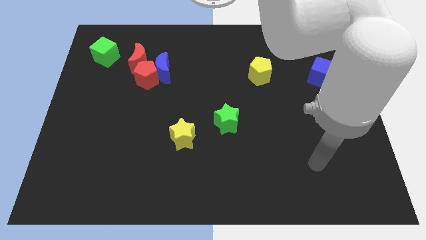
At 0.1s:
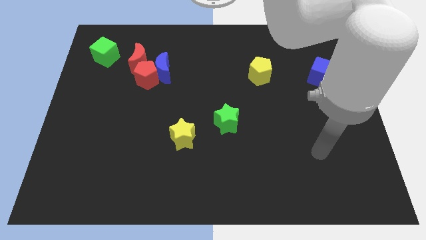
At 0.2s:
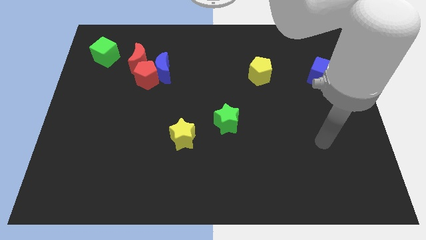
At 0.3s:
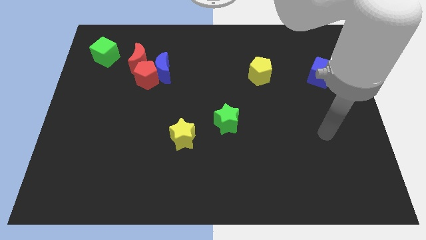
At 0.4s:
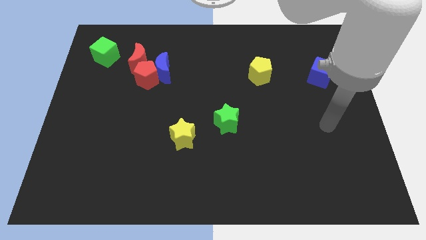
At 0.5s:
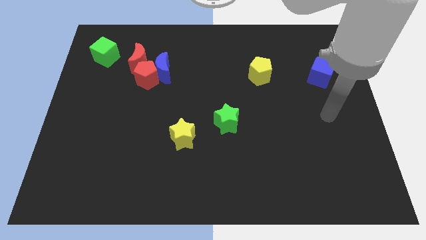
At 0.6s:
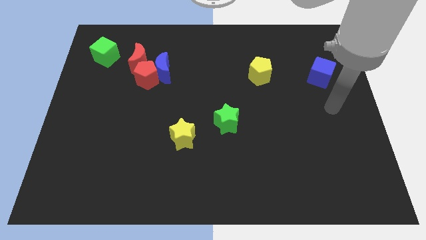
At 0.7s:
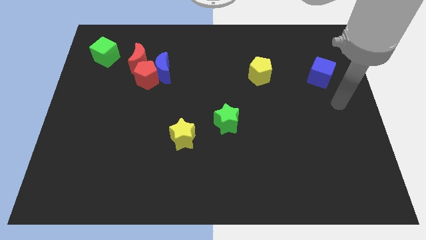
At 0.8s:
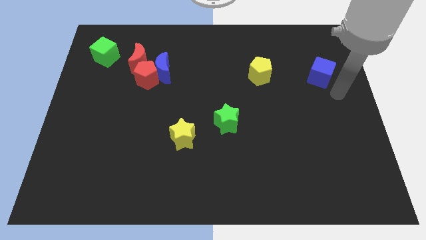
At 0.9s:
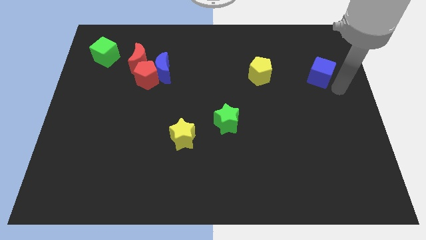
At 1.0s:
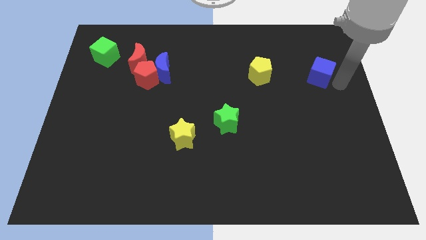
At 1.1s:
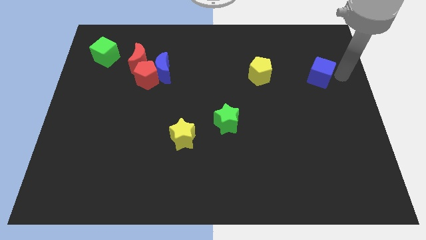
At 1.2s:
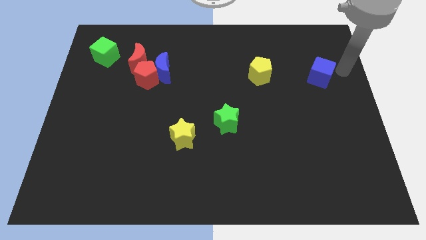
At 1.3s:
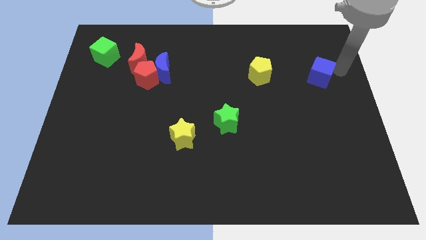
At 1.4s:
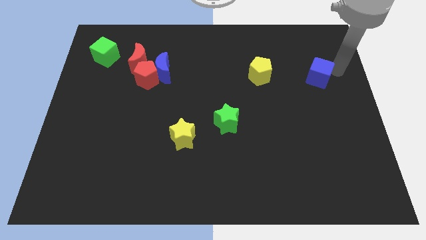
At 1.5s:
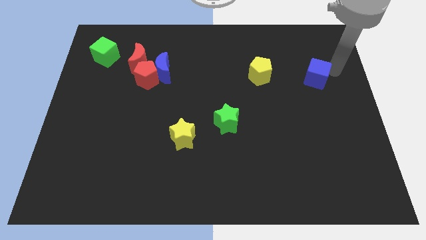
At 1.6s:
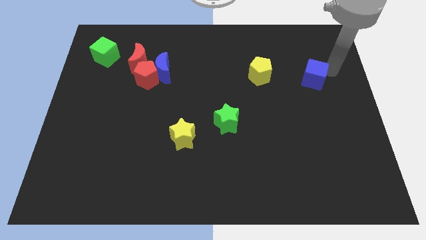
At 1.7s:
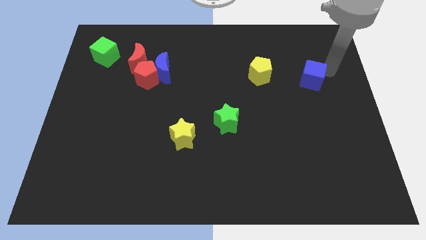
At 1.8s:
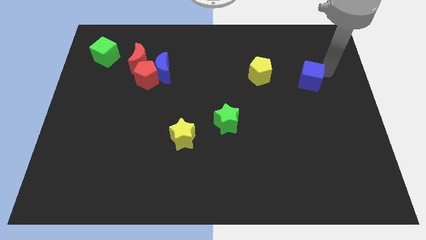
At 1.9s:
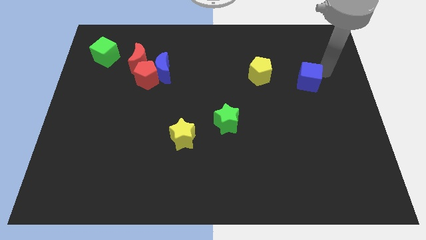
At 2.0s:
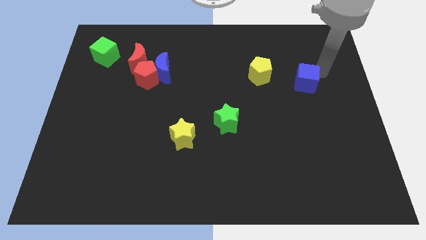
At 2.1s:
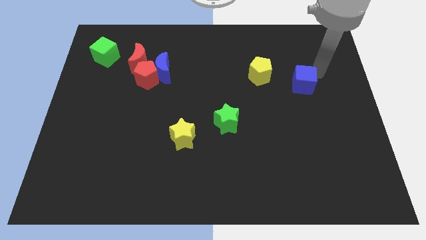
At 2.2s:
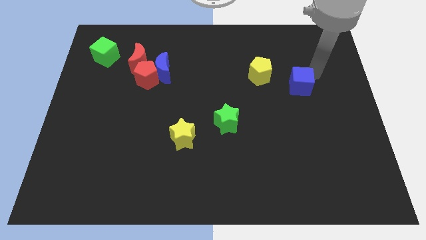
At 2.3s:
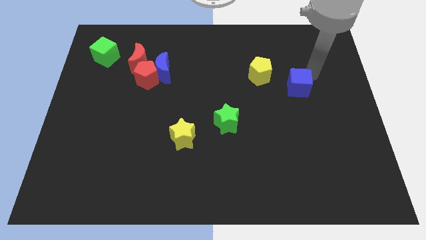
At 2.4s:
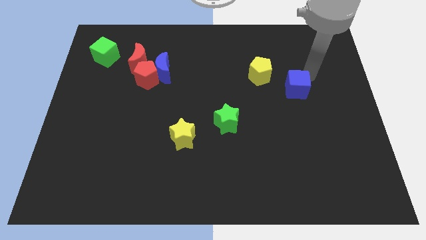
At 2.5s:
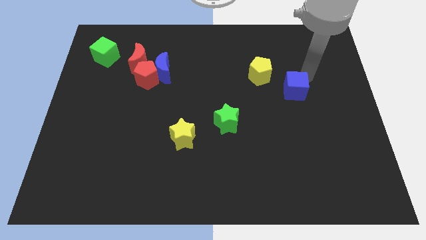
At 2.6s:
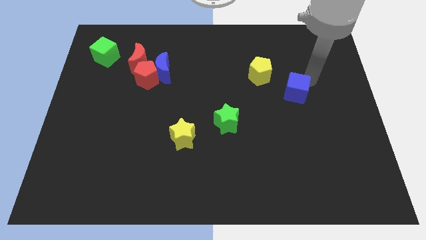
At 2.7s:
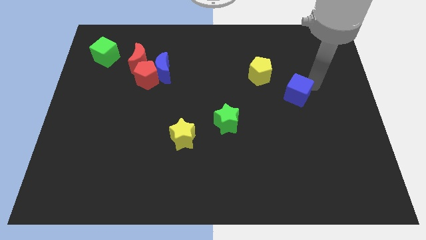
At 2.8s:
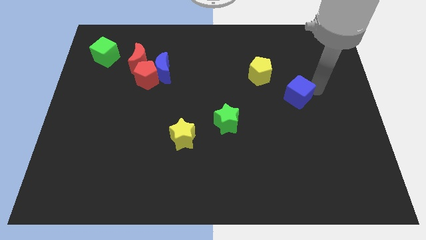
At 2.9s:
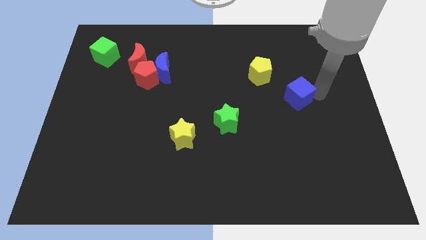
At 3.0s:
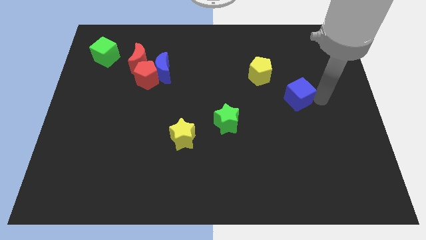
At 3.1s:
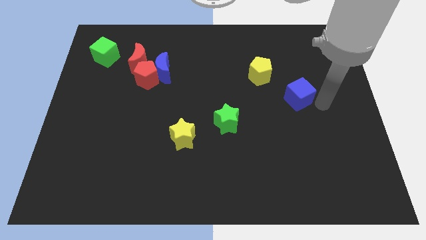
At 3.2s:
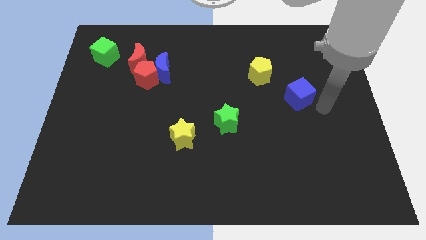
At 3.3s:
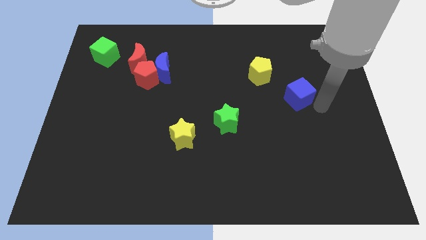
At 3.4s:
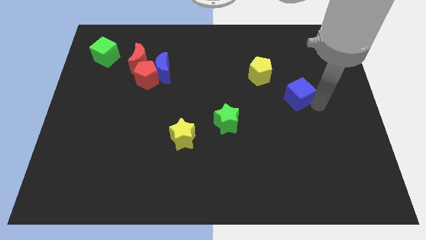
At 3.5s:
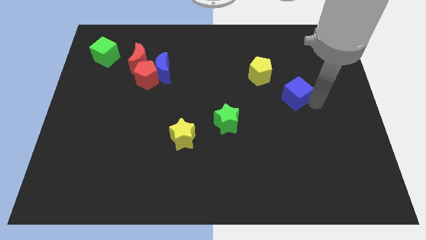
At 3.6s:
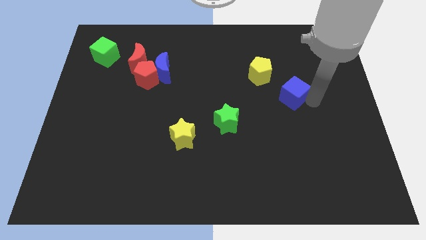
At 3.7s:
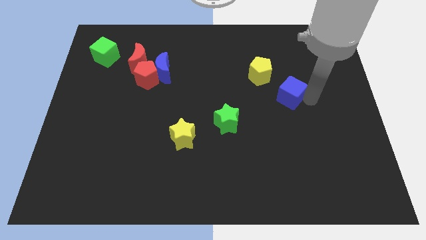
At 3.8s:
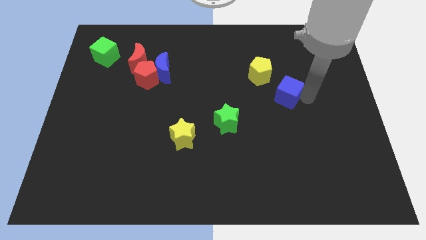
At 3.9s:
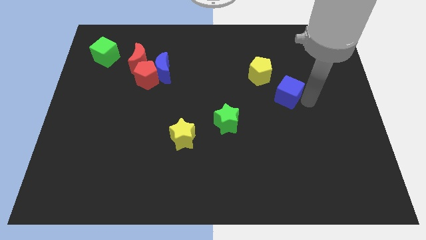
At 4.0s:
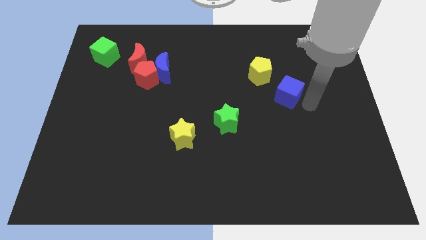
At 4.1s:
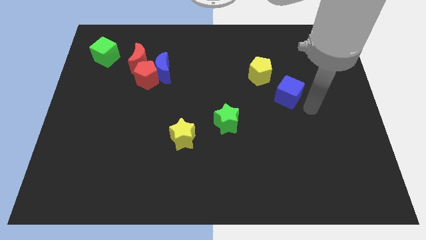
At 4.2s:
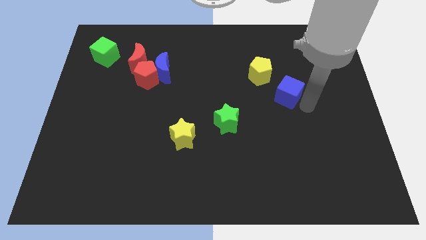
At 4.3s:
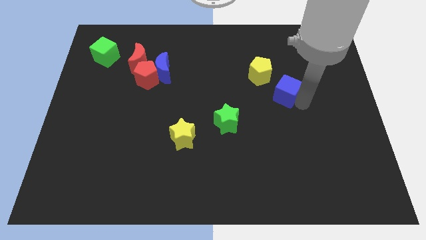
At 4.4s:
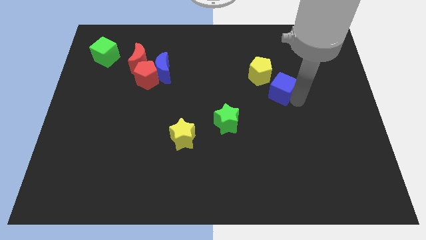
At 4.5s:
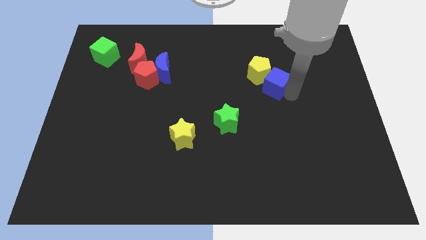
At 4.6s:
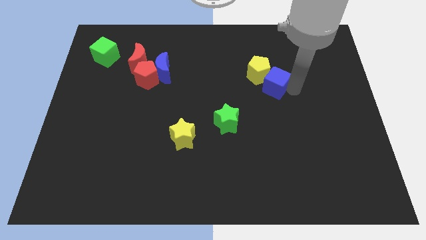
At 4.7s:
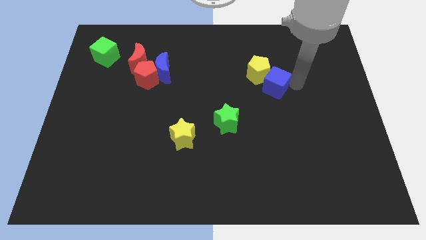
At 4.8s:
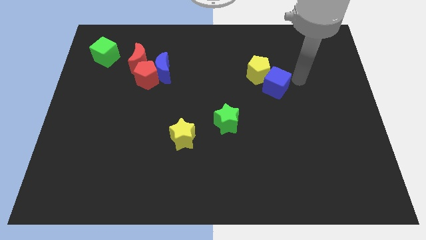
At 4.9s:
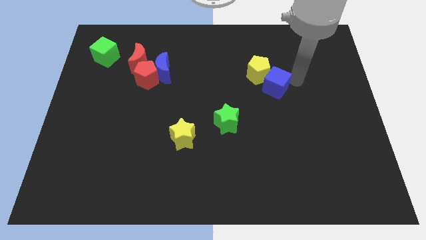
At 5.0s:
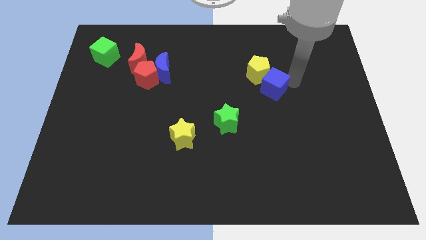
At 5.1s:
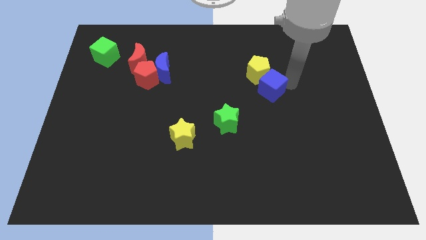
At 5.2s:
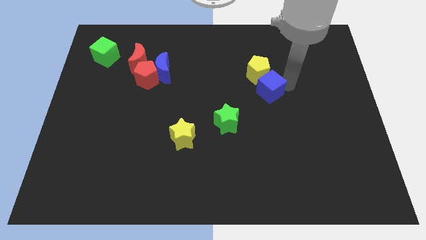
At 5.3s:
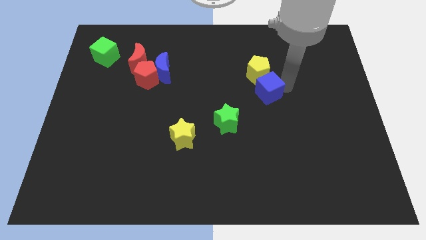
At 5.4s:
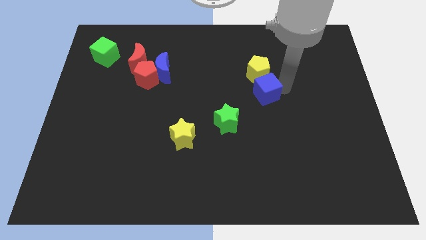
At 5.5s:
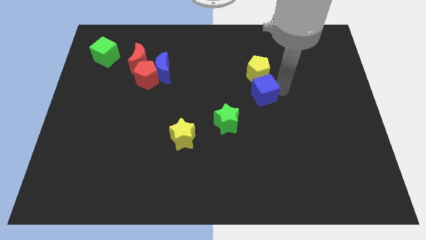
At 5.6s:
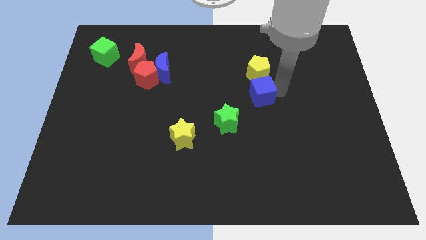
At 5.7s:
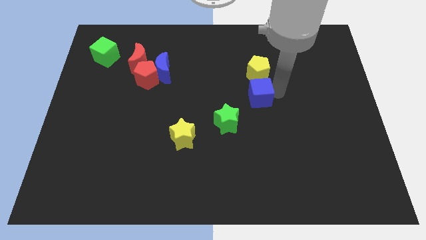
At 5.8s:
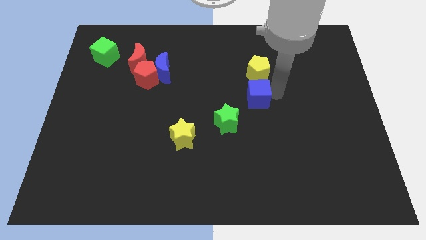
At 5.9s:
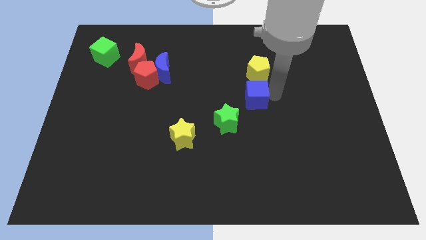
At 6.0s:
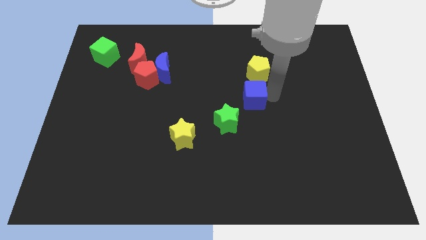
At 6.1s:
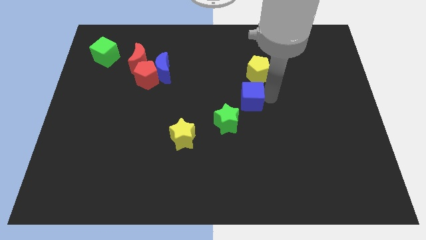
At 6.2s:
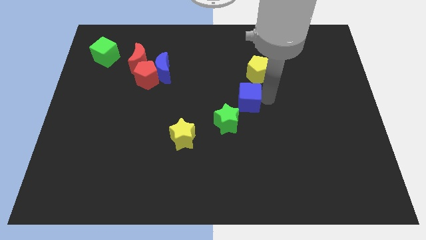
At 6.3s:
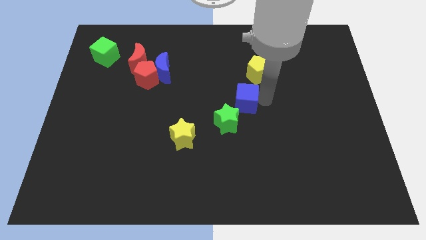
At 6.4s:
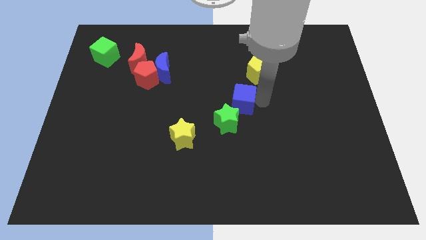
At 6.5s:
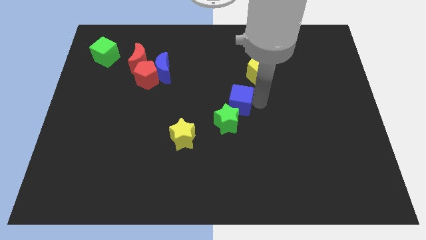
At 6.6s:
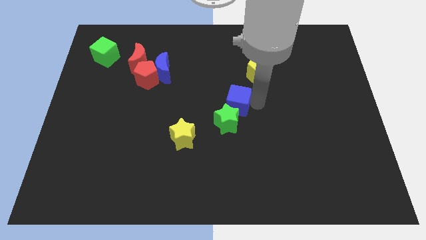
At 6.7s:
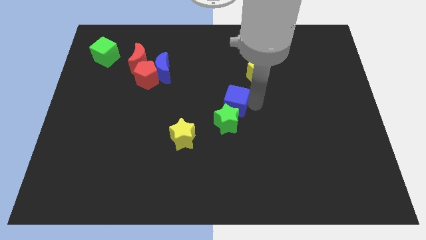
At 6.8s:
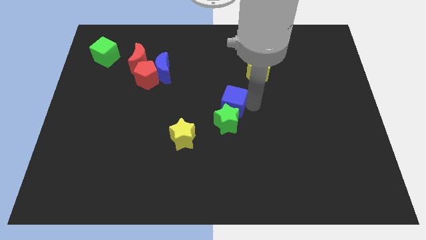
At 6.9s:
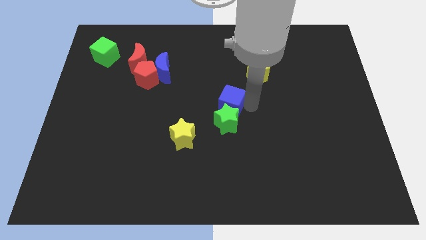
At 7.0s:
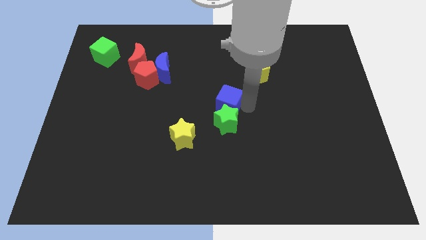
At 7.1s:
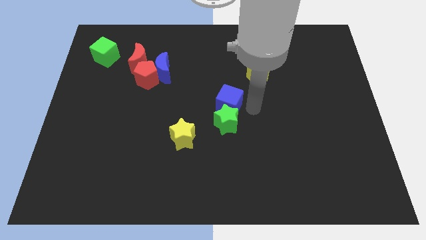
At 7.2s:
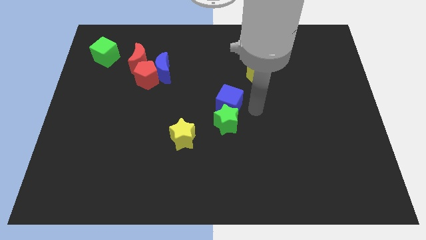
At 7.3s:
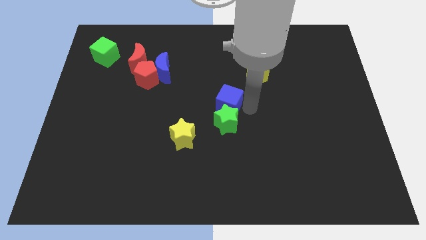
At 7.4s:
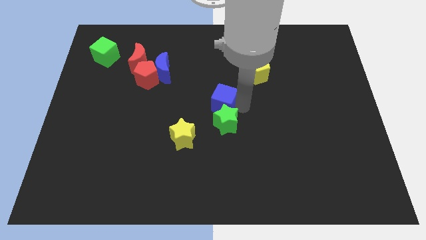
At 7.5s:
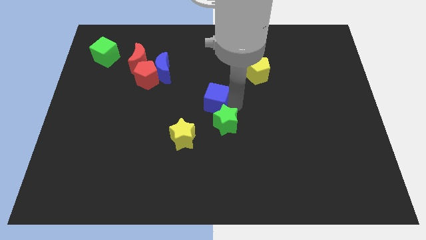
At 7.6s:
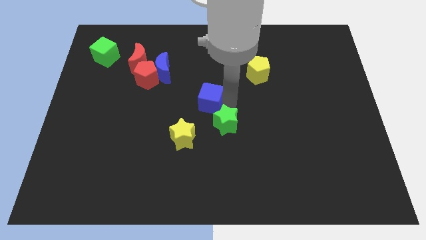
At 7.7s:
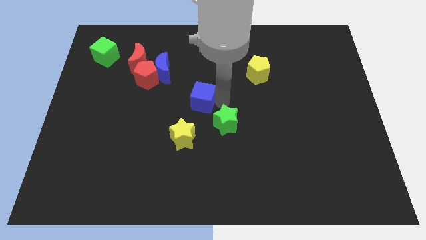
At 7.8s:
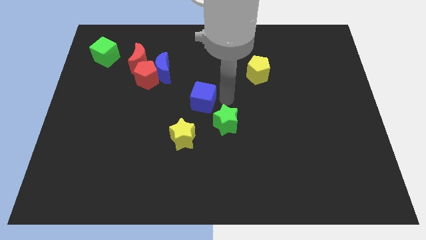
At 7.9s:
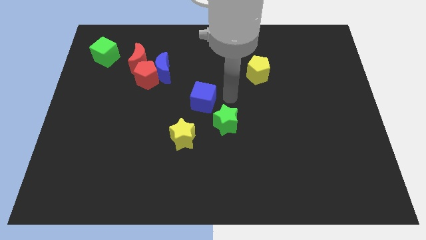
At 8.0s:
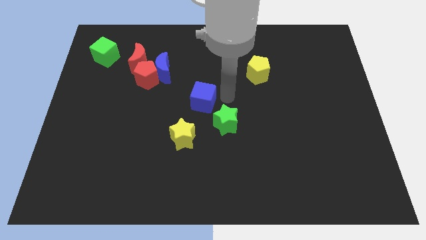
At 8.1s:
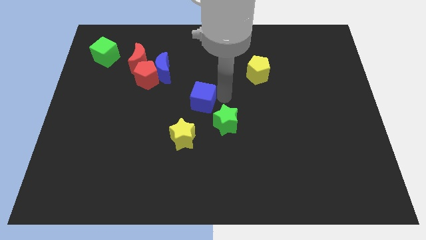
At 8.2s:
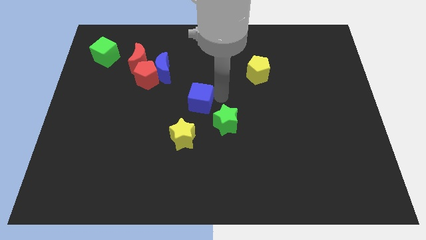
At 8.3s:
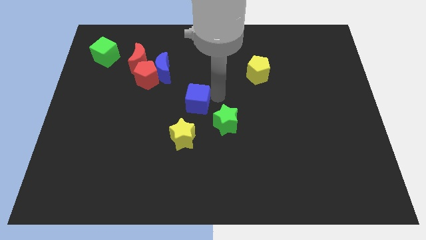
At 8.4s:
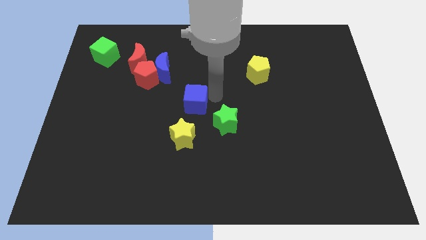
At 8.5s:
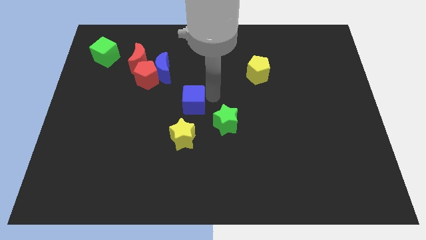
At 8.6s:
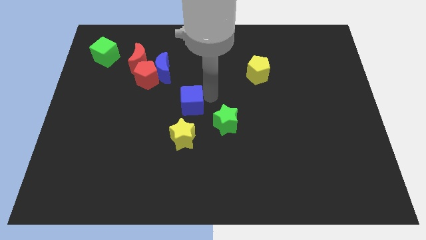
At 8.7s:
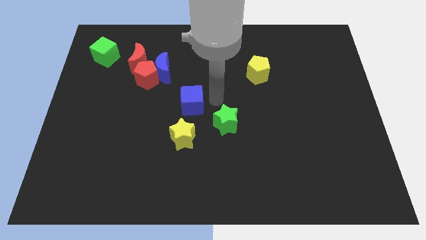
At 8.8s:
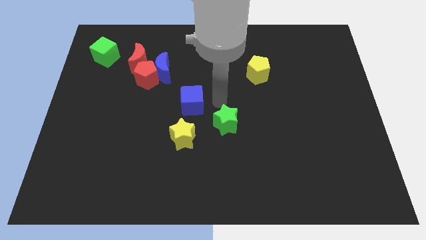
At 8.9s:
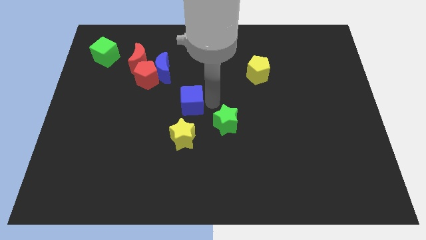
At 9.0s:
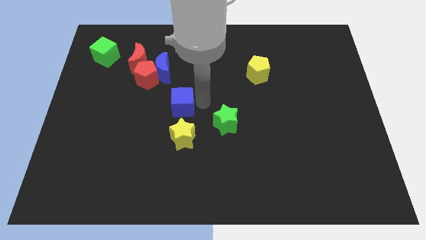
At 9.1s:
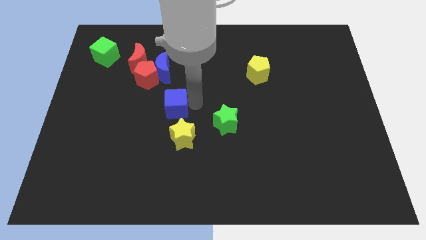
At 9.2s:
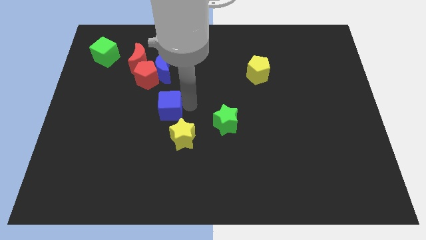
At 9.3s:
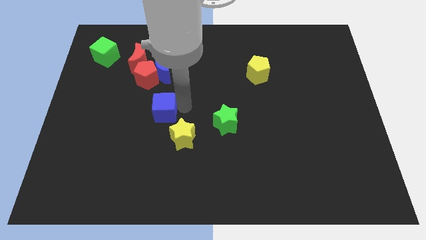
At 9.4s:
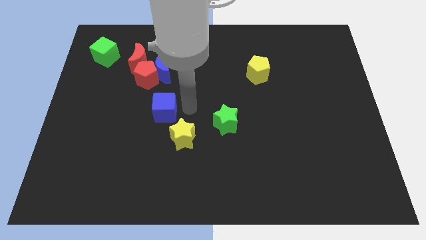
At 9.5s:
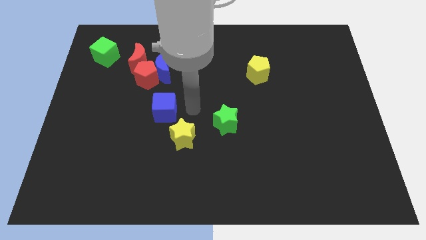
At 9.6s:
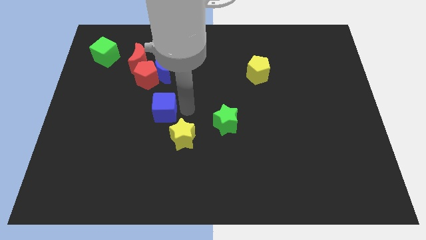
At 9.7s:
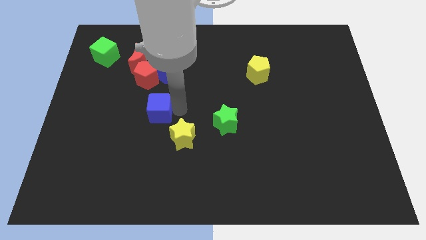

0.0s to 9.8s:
push the blue cube to the bottom side of the red pentagon
